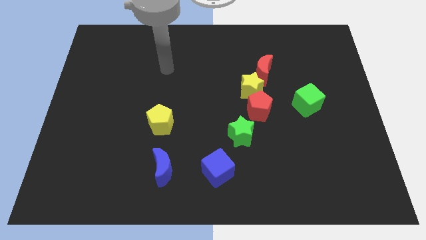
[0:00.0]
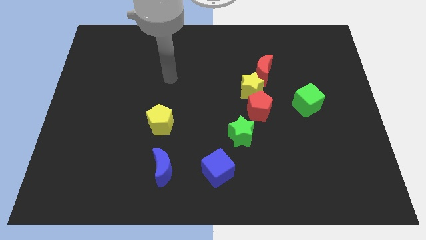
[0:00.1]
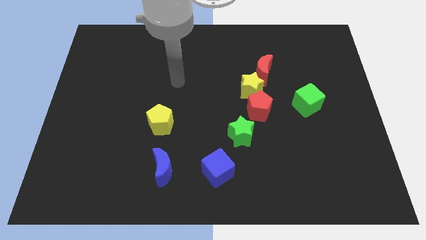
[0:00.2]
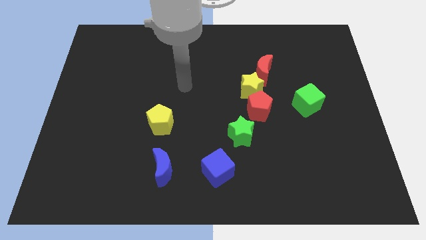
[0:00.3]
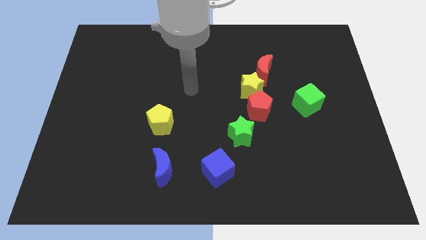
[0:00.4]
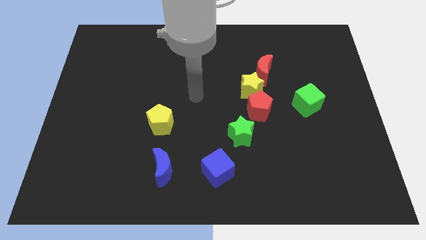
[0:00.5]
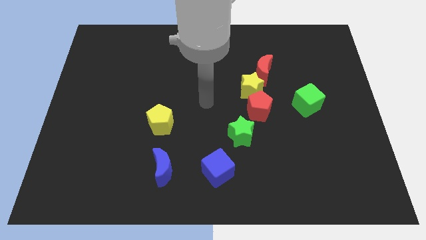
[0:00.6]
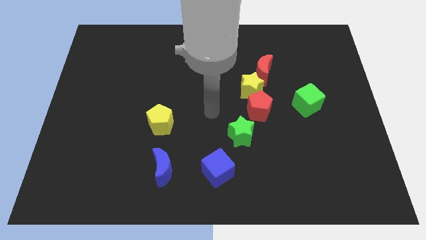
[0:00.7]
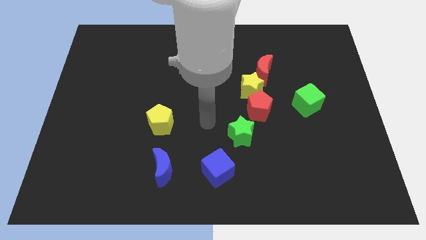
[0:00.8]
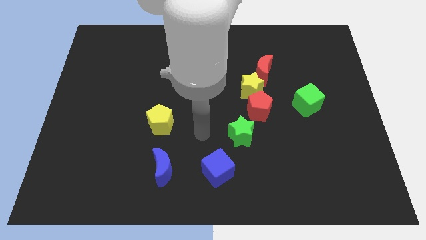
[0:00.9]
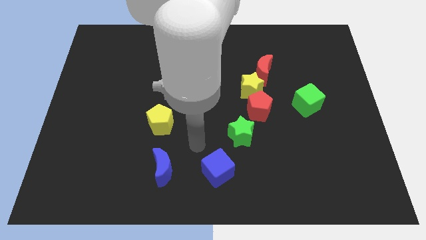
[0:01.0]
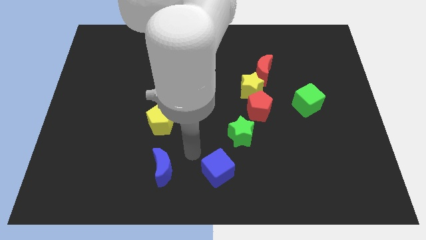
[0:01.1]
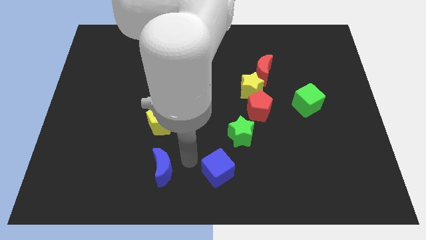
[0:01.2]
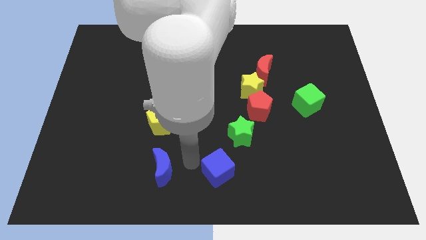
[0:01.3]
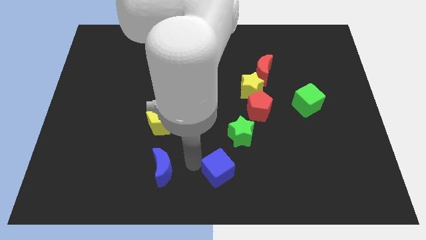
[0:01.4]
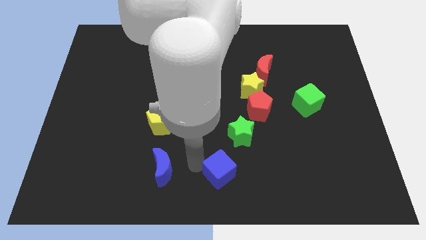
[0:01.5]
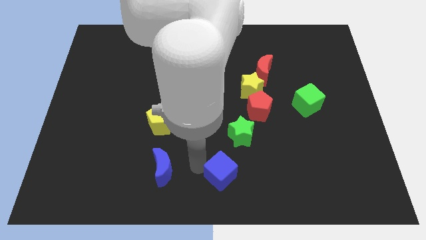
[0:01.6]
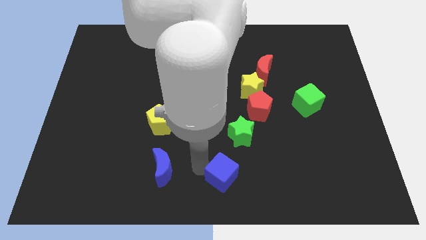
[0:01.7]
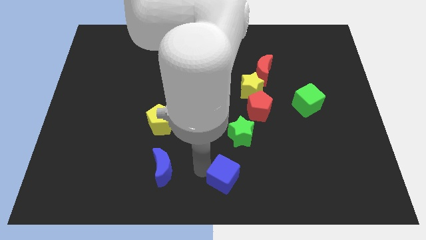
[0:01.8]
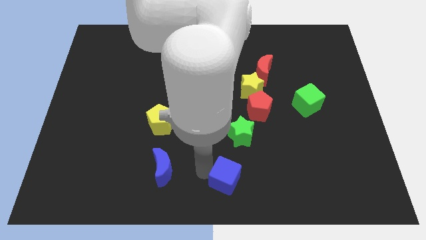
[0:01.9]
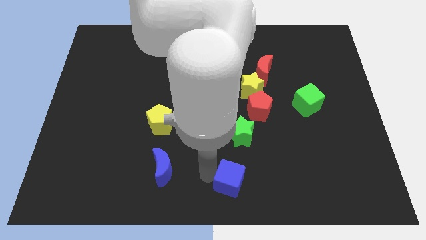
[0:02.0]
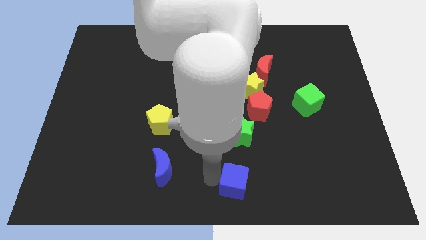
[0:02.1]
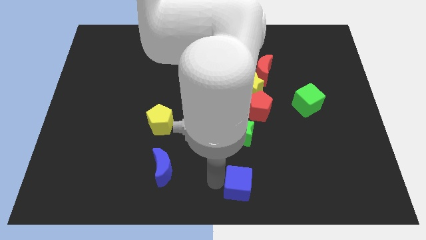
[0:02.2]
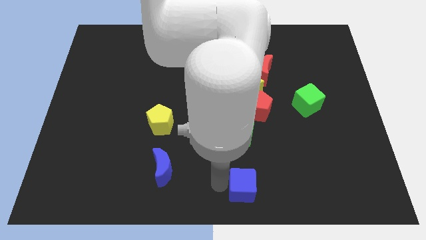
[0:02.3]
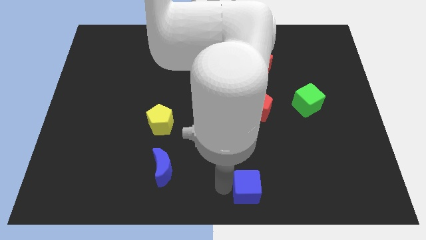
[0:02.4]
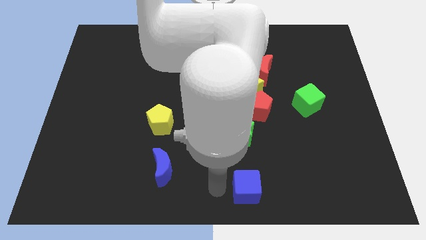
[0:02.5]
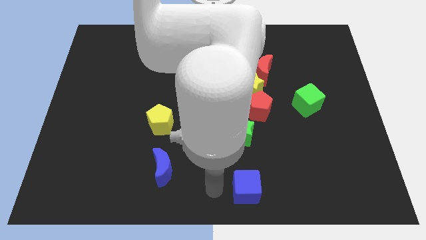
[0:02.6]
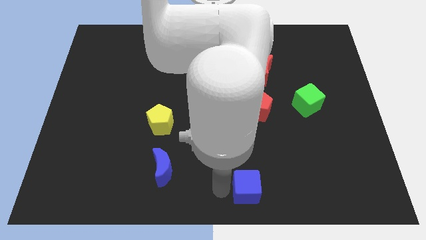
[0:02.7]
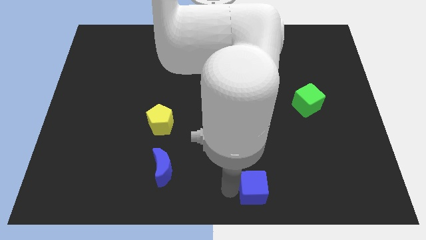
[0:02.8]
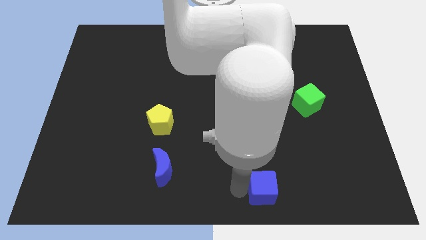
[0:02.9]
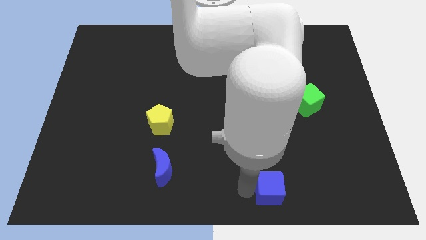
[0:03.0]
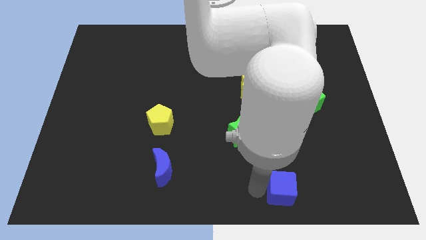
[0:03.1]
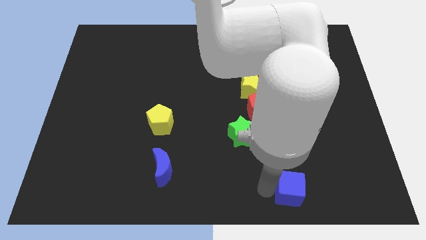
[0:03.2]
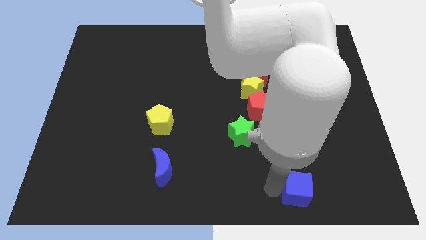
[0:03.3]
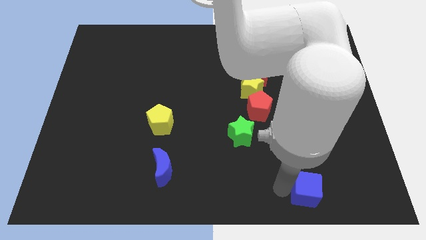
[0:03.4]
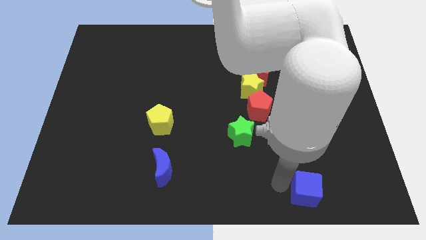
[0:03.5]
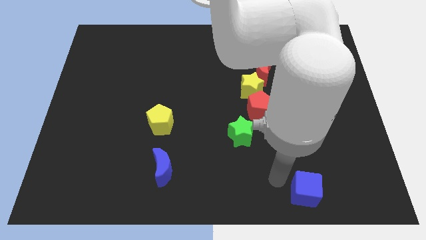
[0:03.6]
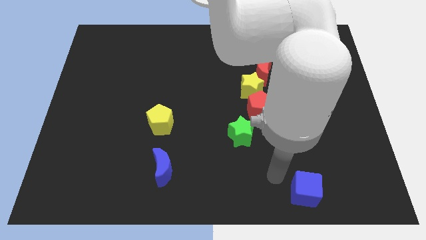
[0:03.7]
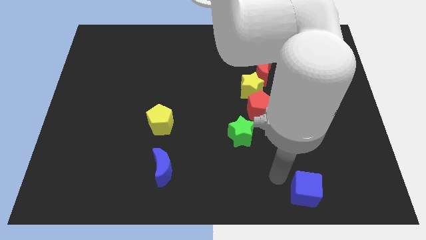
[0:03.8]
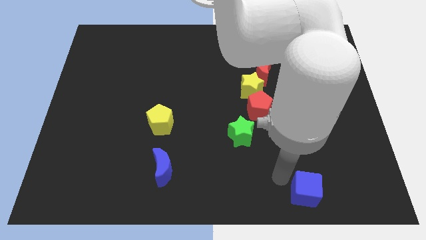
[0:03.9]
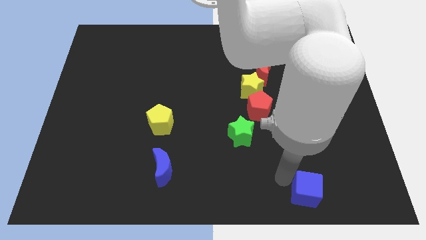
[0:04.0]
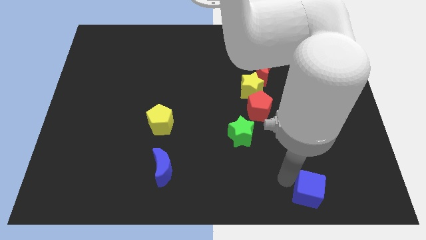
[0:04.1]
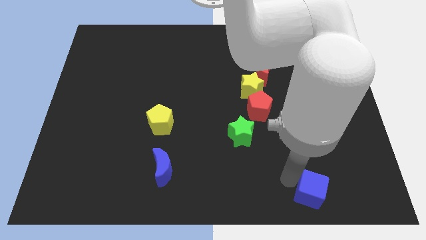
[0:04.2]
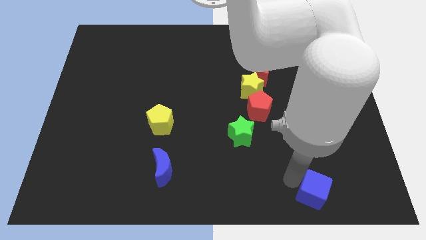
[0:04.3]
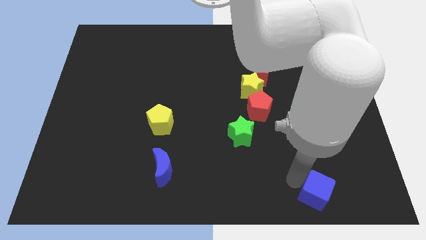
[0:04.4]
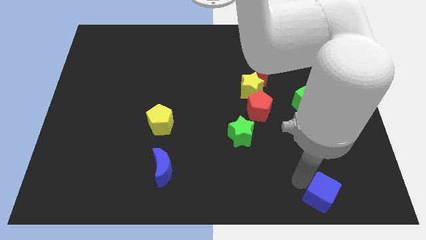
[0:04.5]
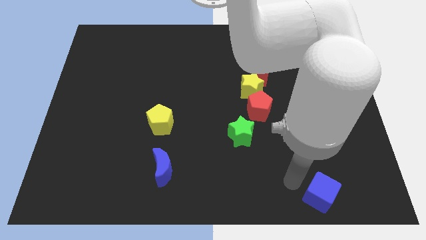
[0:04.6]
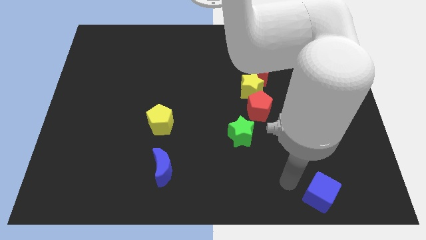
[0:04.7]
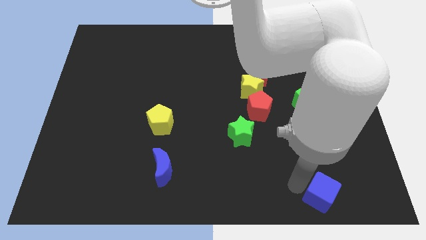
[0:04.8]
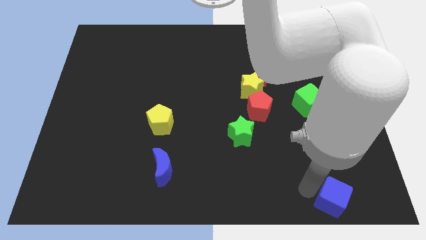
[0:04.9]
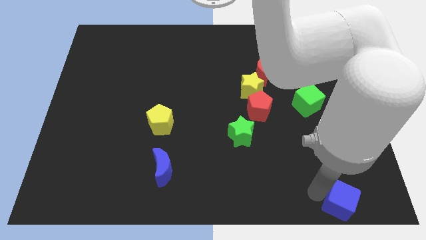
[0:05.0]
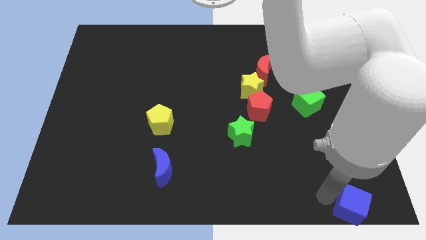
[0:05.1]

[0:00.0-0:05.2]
push the blue cube to the lower right corner

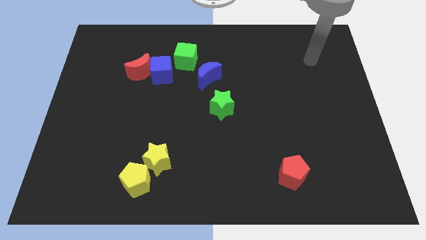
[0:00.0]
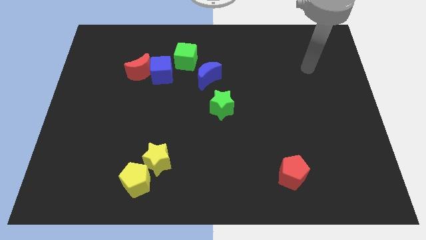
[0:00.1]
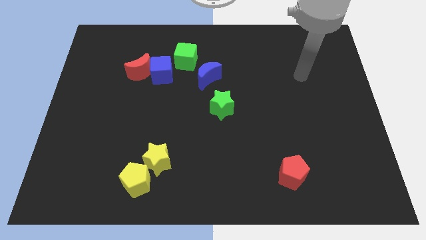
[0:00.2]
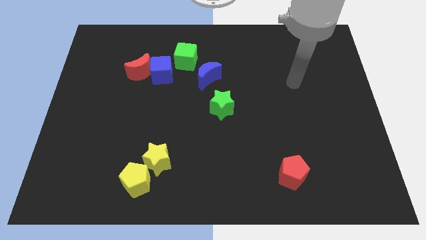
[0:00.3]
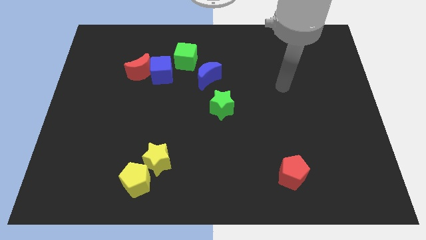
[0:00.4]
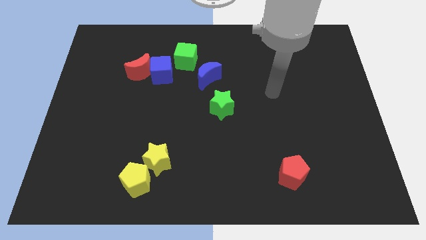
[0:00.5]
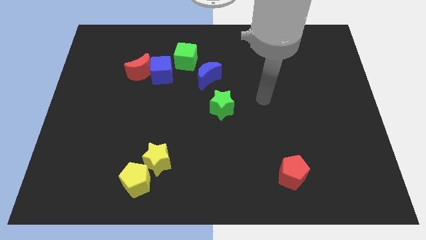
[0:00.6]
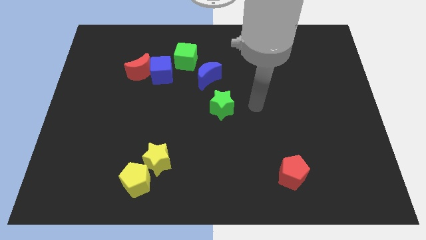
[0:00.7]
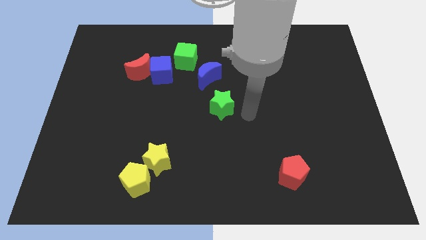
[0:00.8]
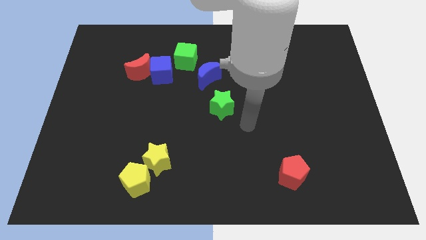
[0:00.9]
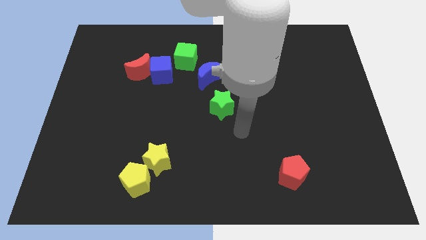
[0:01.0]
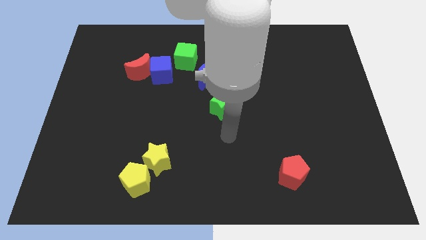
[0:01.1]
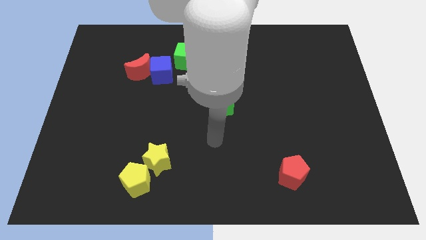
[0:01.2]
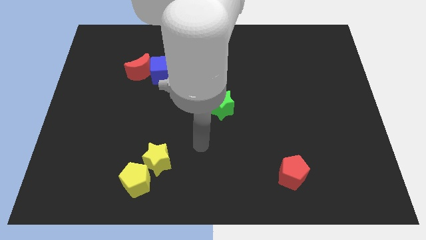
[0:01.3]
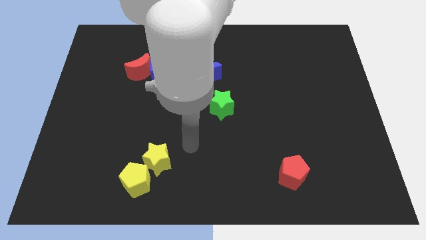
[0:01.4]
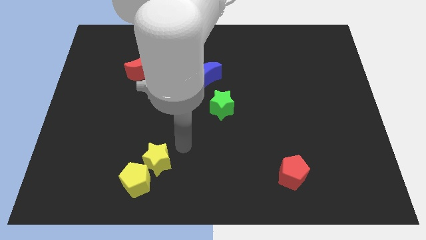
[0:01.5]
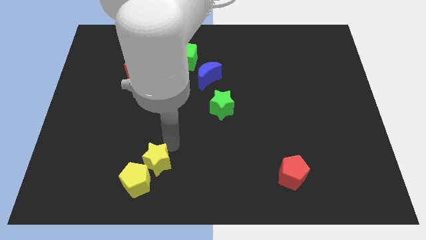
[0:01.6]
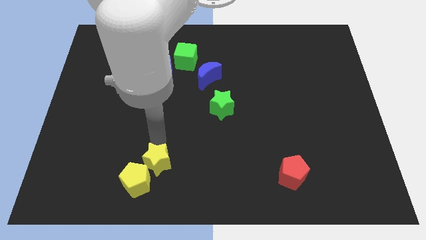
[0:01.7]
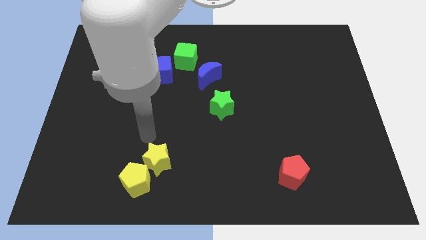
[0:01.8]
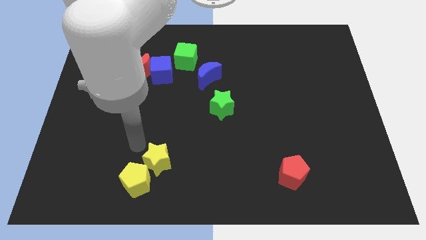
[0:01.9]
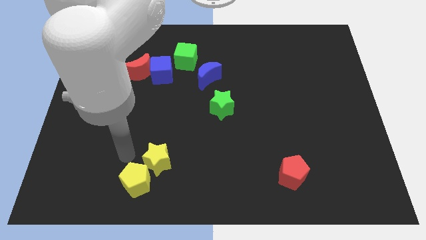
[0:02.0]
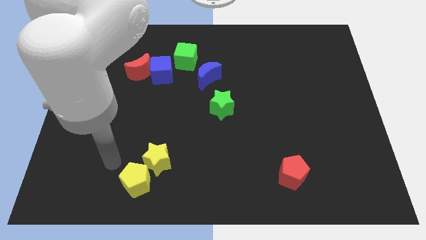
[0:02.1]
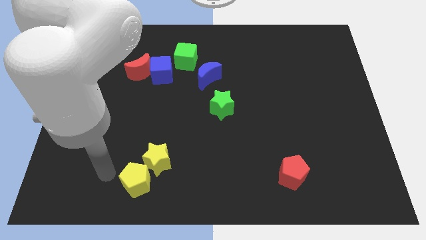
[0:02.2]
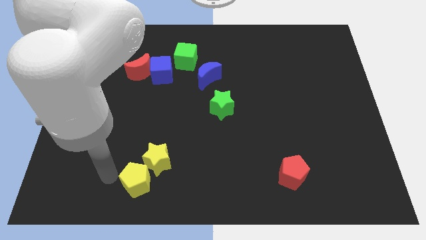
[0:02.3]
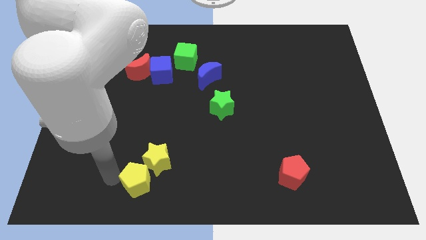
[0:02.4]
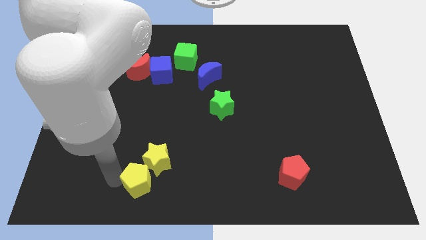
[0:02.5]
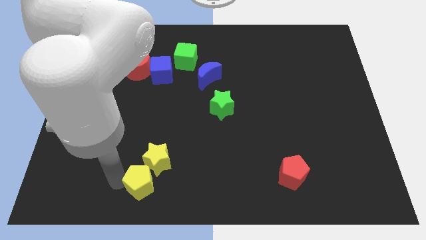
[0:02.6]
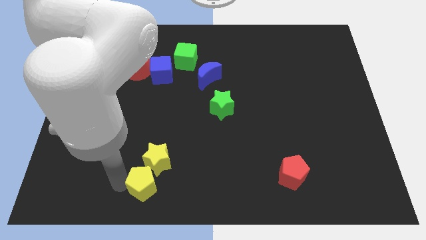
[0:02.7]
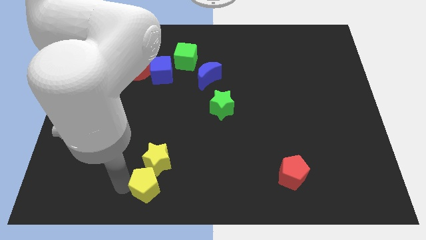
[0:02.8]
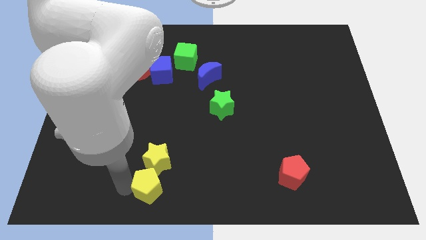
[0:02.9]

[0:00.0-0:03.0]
move the yellow pentagon to the bottom
